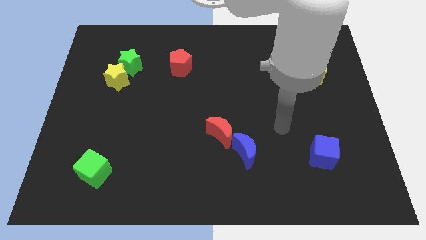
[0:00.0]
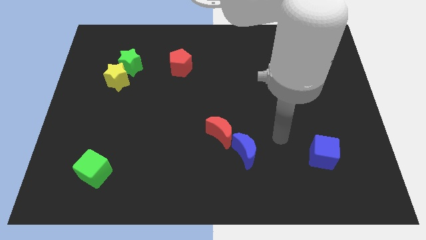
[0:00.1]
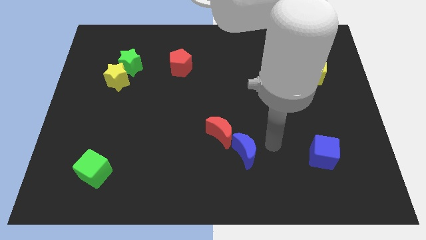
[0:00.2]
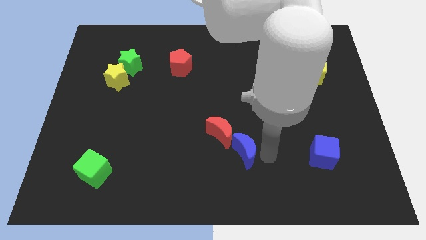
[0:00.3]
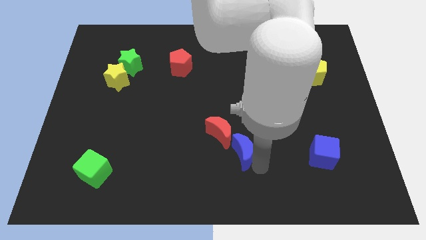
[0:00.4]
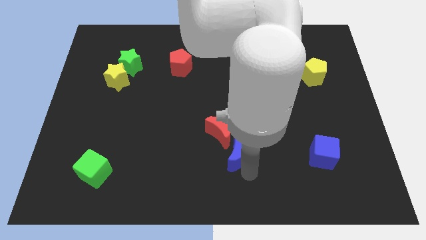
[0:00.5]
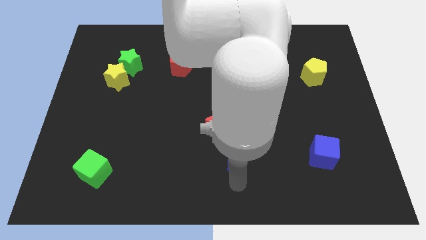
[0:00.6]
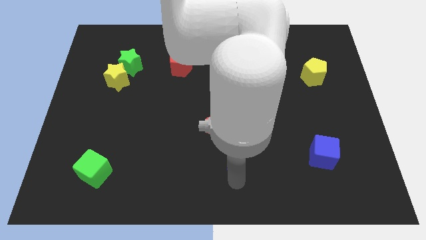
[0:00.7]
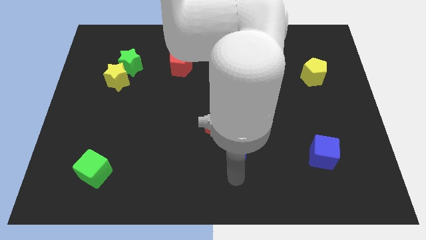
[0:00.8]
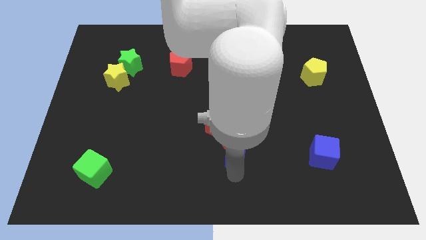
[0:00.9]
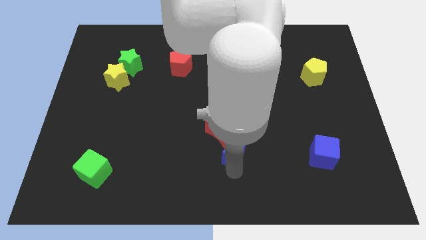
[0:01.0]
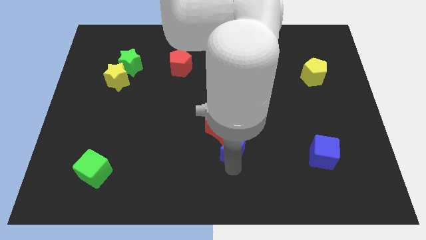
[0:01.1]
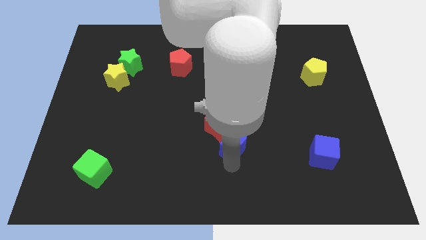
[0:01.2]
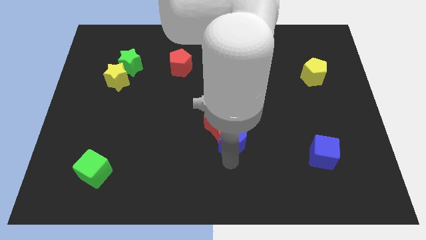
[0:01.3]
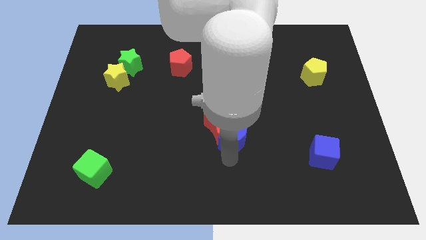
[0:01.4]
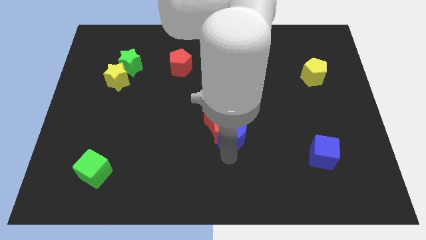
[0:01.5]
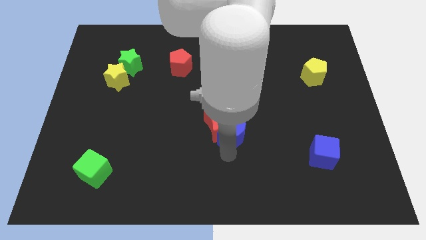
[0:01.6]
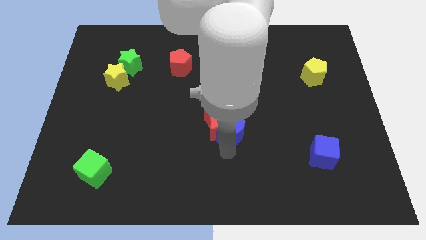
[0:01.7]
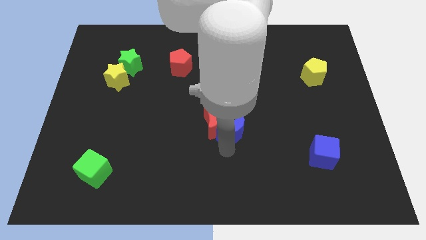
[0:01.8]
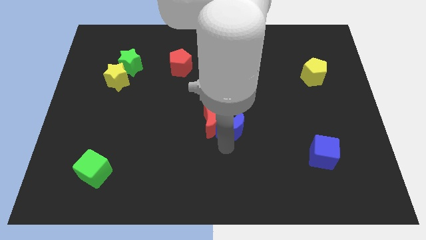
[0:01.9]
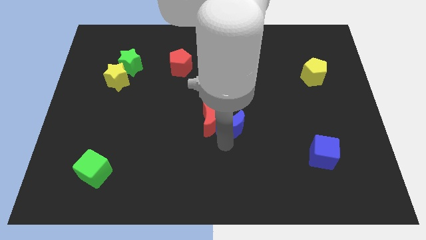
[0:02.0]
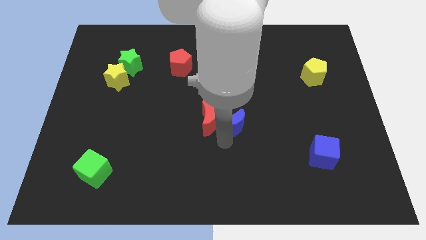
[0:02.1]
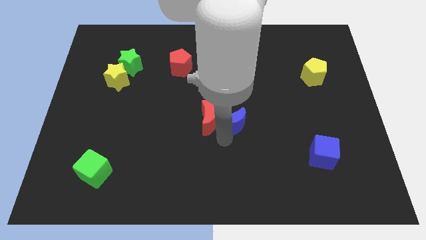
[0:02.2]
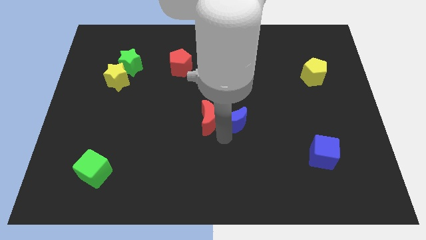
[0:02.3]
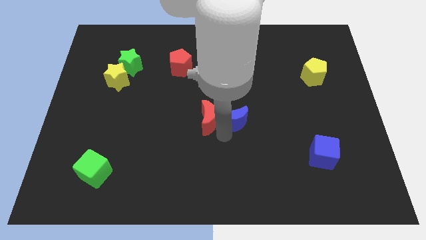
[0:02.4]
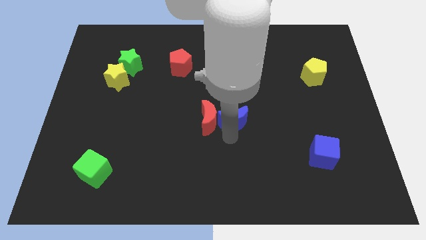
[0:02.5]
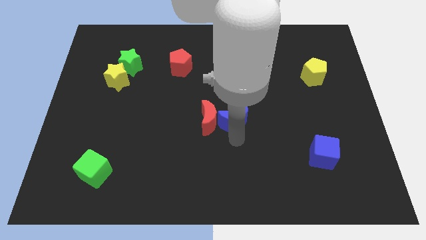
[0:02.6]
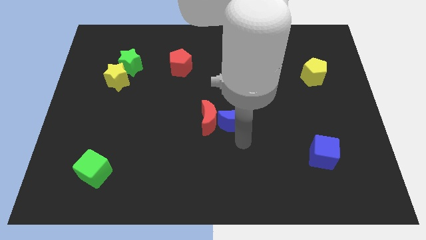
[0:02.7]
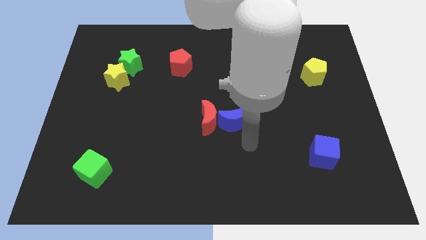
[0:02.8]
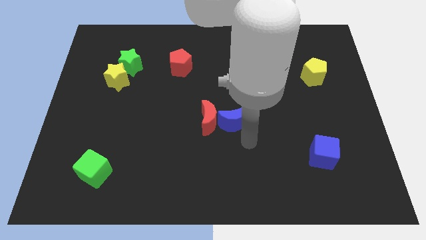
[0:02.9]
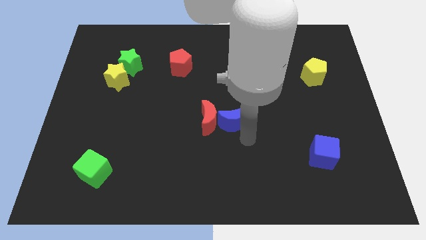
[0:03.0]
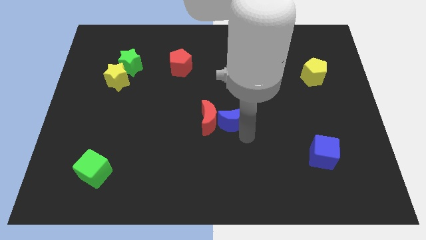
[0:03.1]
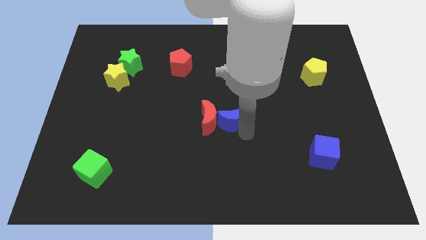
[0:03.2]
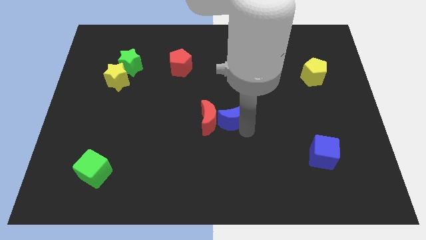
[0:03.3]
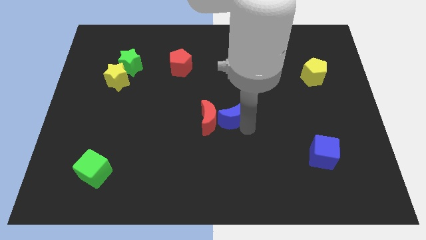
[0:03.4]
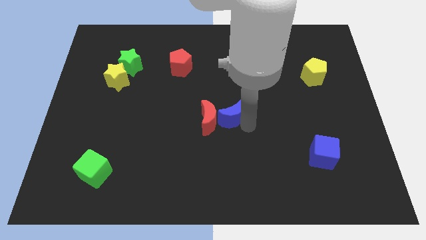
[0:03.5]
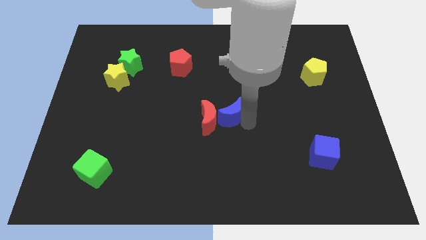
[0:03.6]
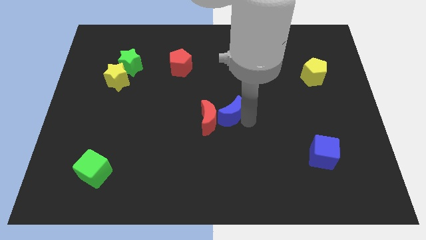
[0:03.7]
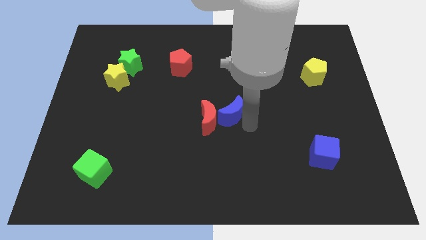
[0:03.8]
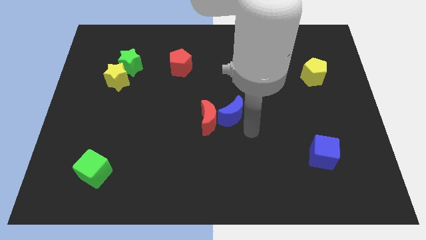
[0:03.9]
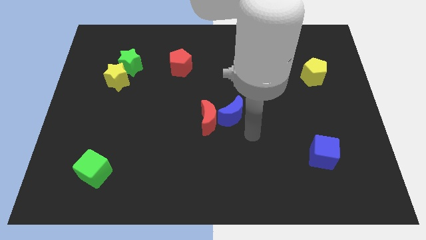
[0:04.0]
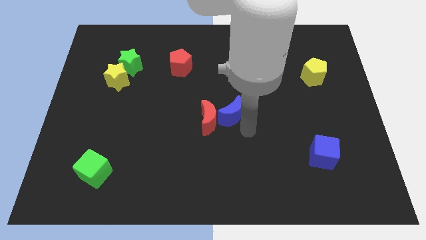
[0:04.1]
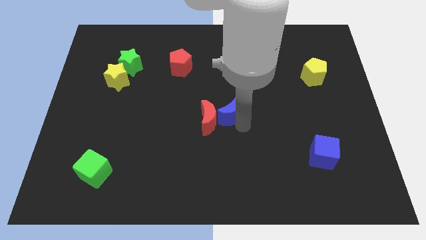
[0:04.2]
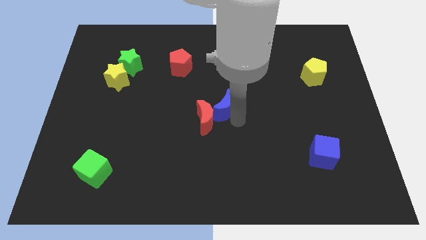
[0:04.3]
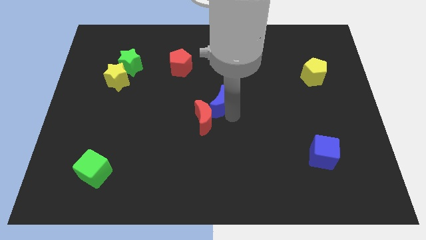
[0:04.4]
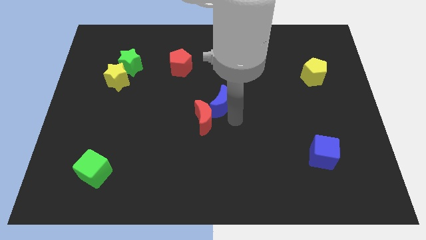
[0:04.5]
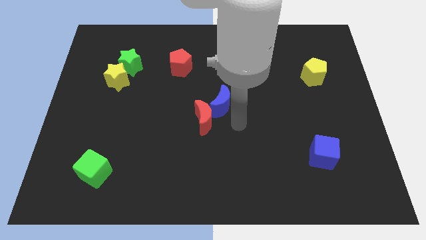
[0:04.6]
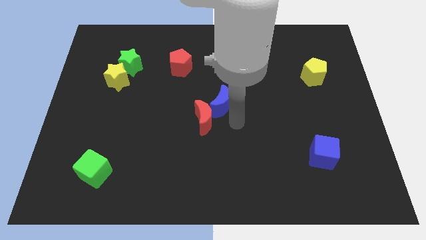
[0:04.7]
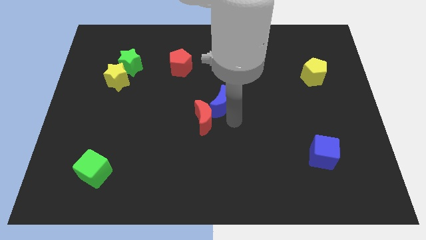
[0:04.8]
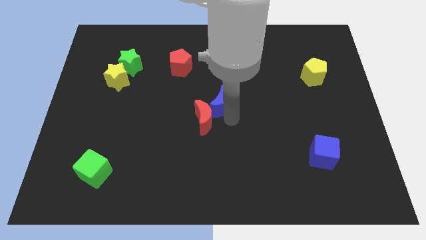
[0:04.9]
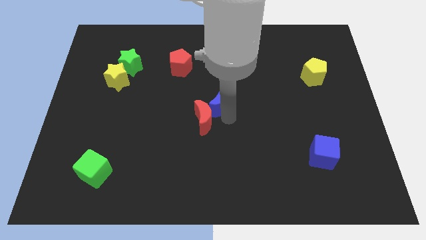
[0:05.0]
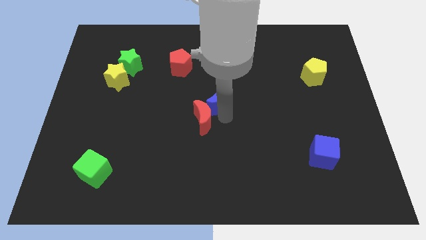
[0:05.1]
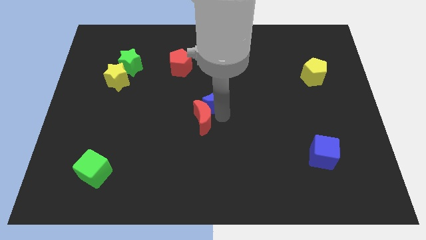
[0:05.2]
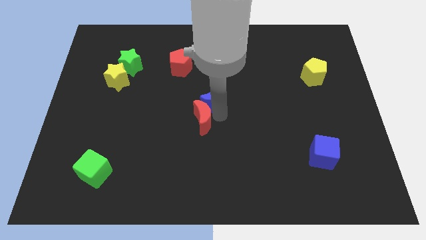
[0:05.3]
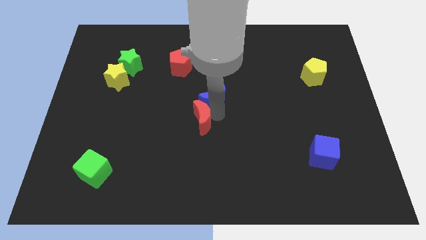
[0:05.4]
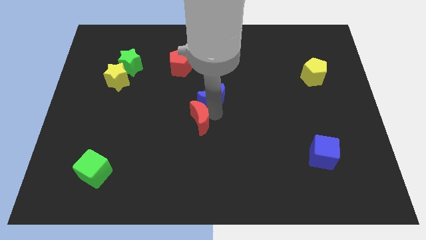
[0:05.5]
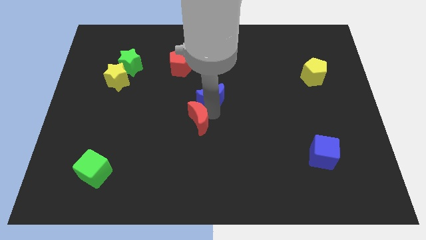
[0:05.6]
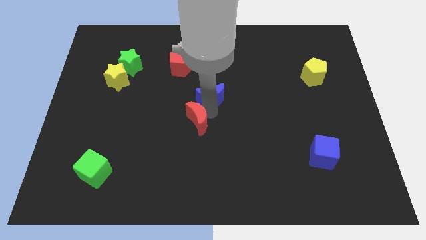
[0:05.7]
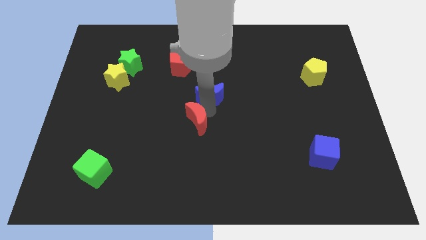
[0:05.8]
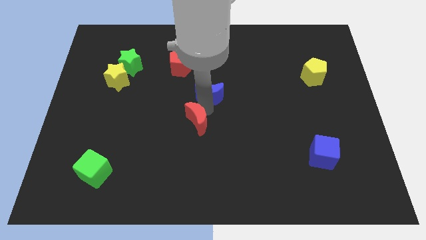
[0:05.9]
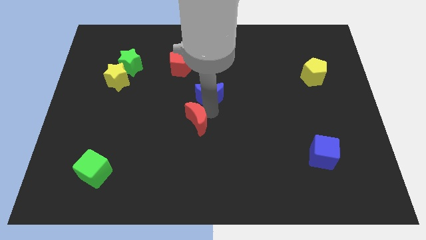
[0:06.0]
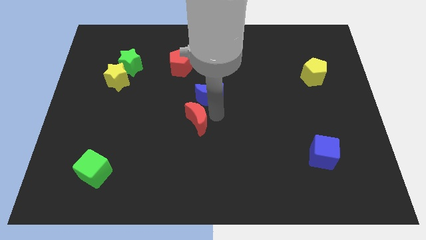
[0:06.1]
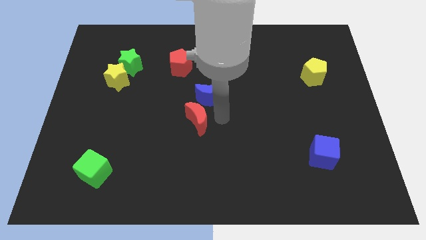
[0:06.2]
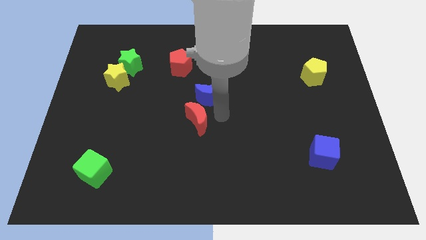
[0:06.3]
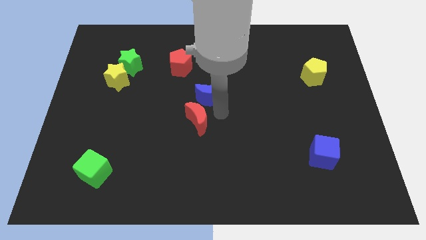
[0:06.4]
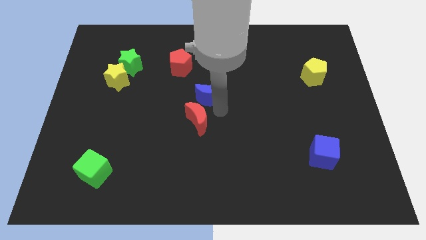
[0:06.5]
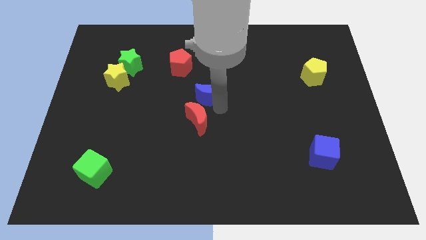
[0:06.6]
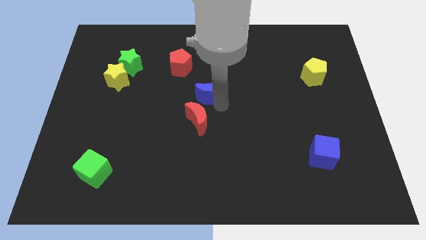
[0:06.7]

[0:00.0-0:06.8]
put the blue moon to the bottom right of the red pentagon
